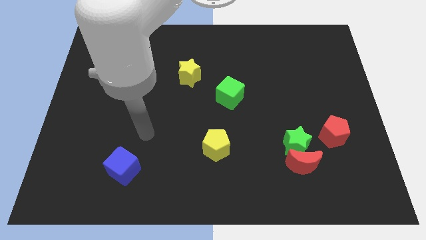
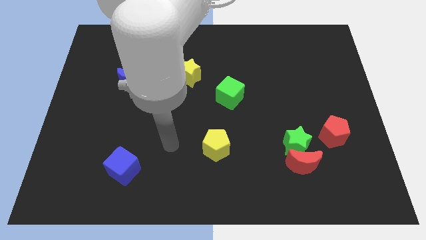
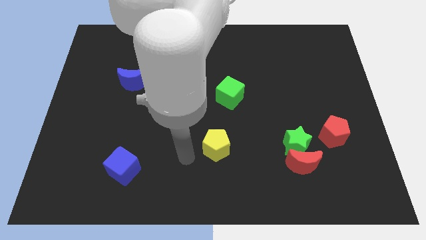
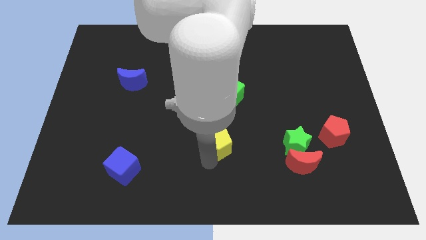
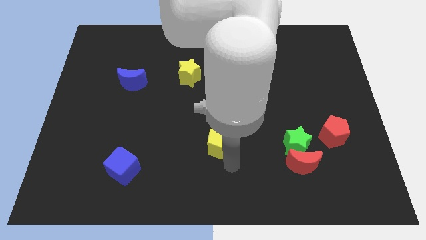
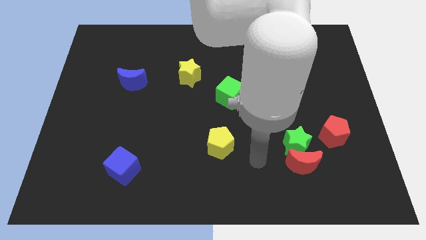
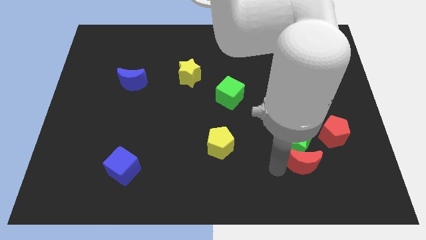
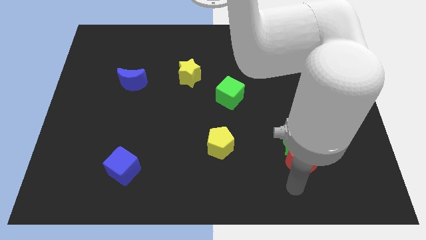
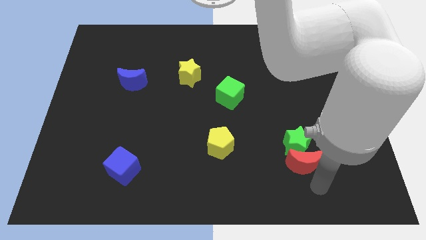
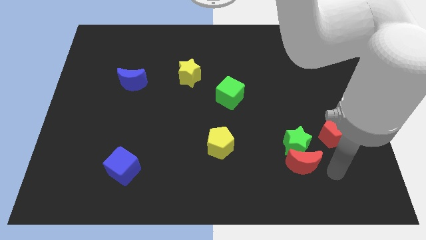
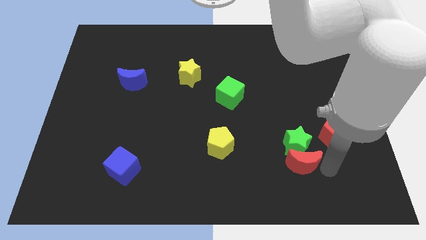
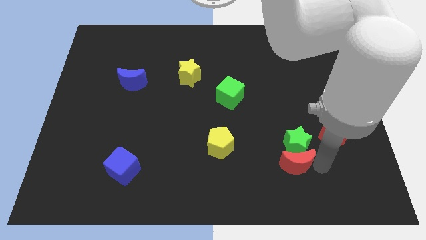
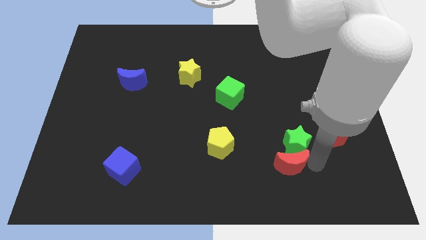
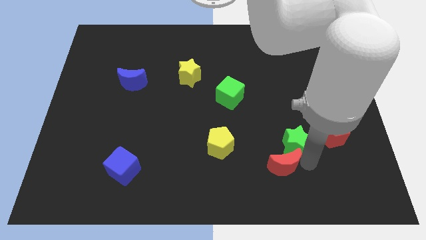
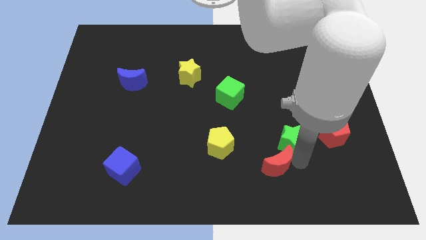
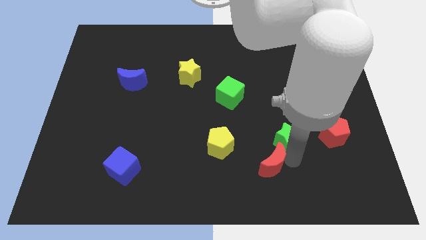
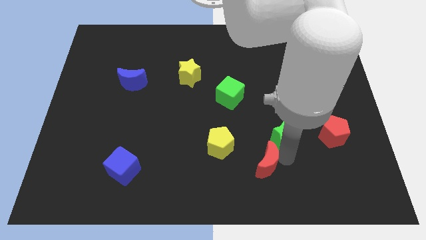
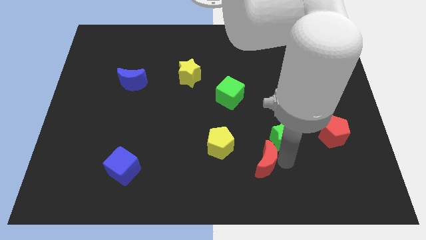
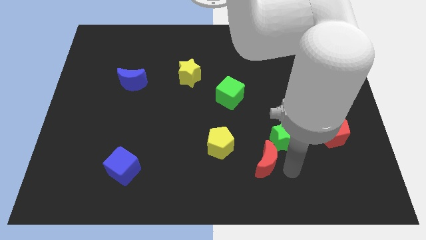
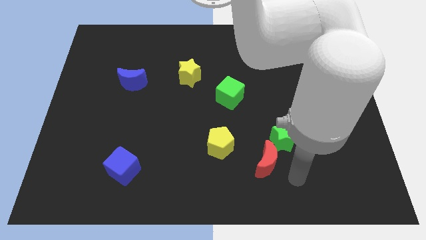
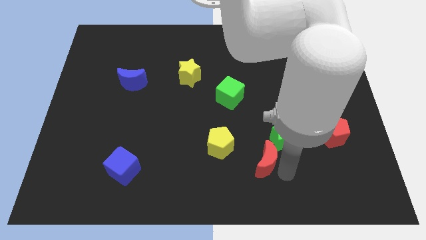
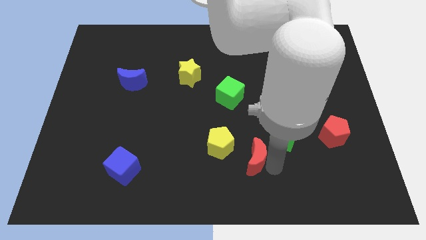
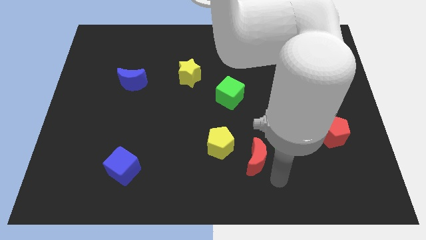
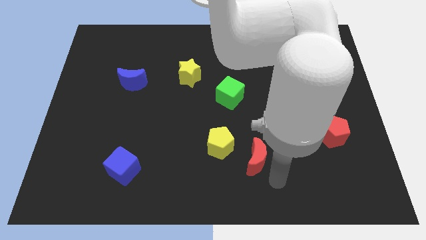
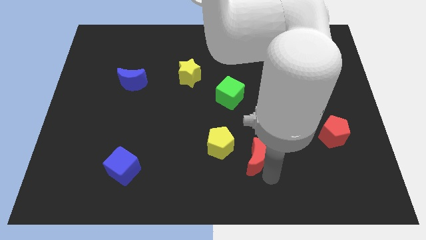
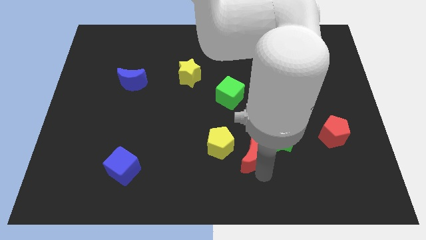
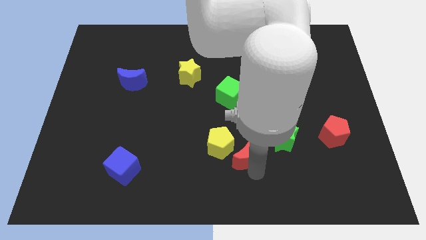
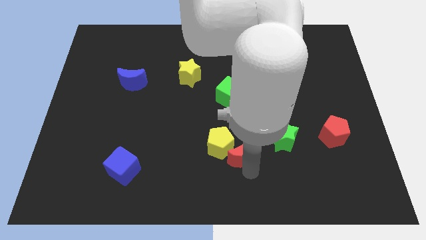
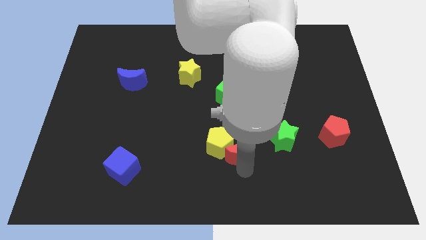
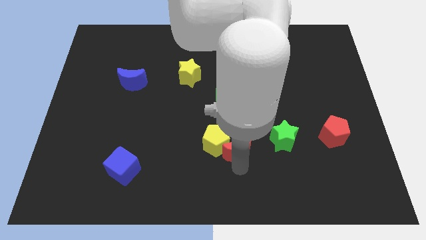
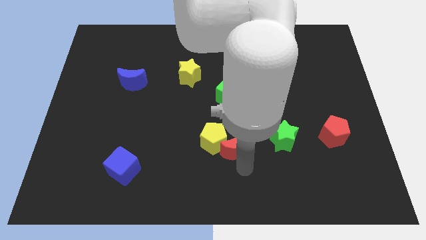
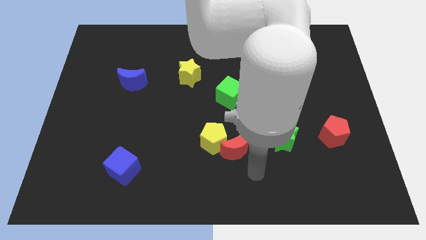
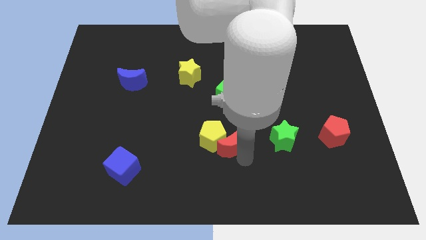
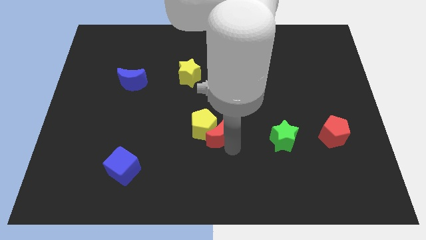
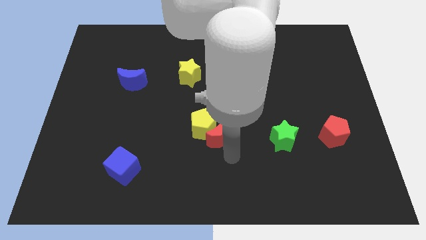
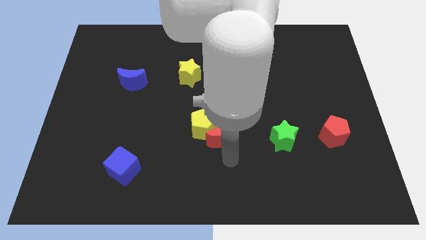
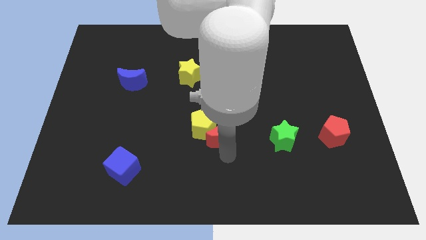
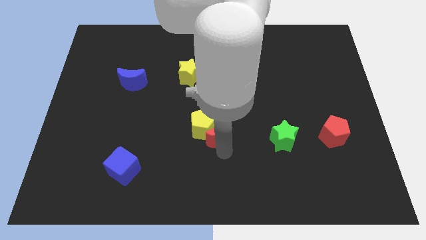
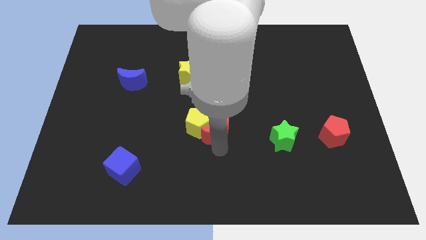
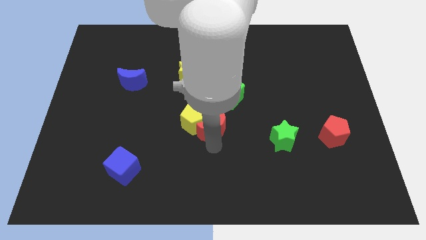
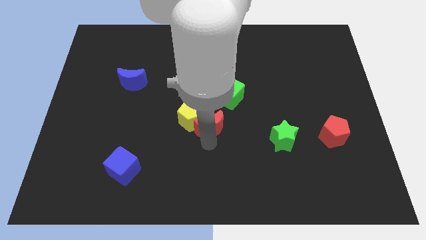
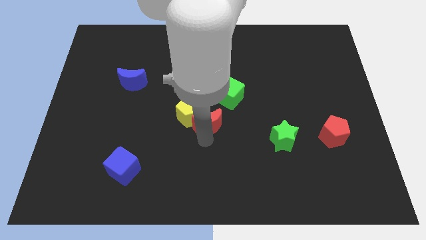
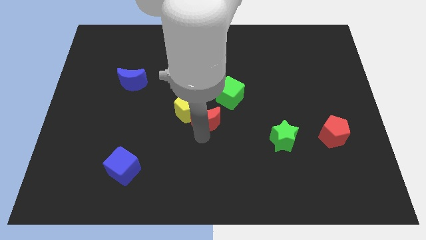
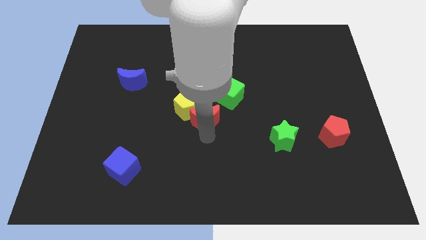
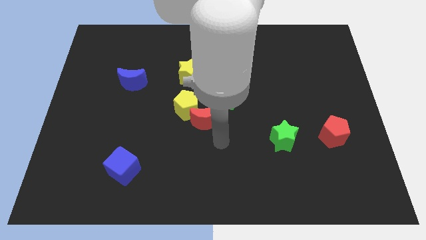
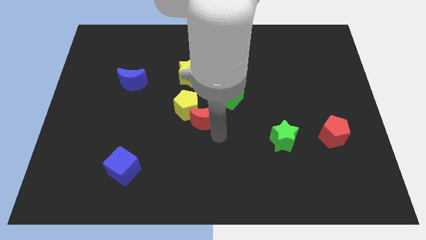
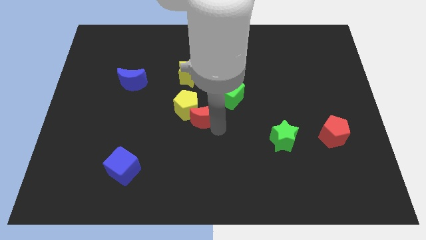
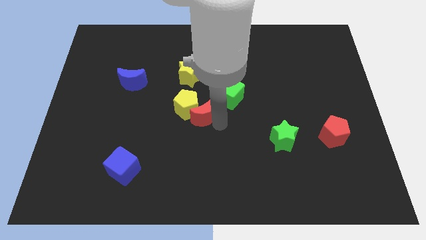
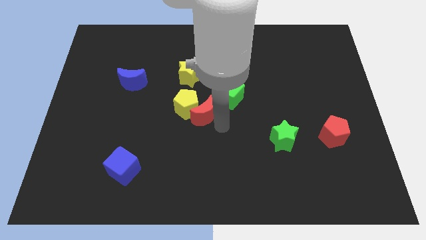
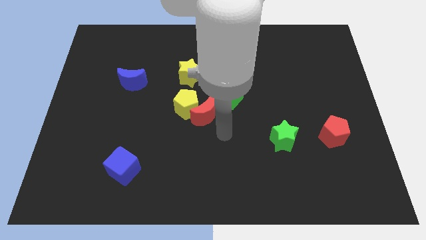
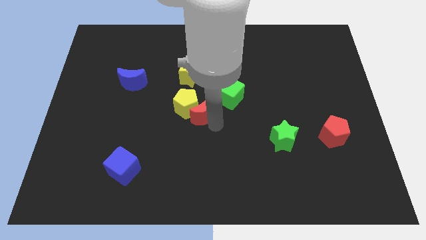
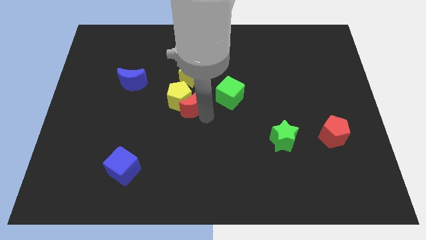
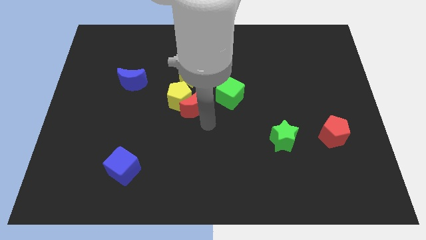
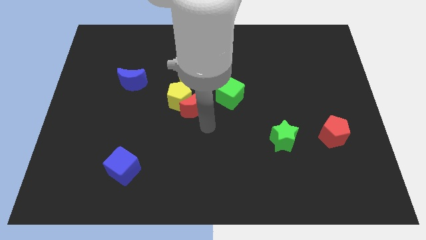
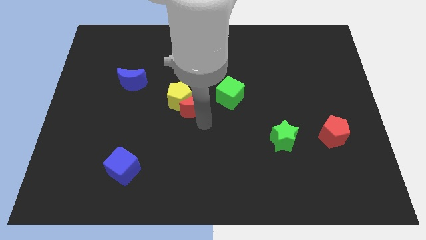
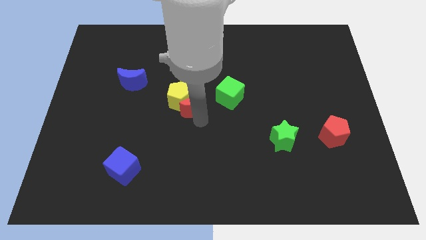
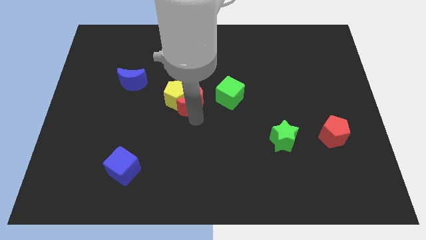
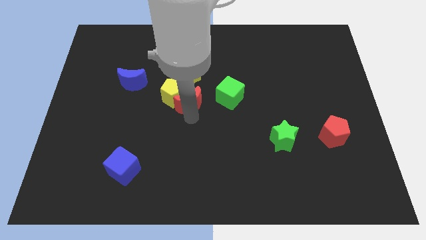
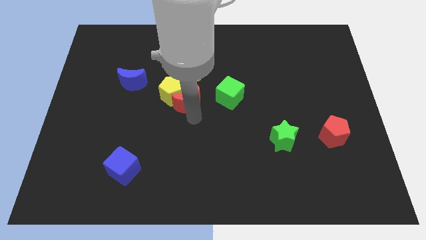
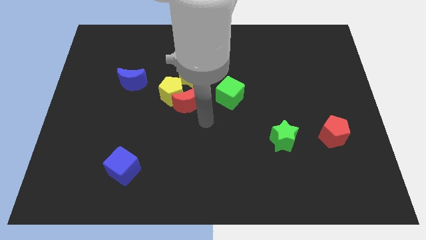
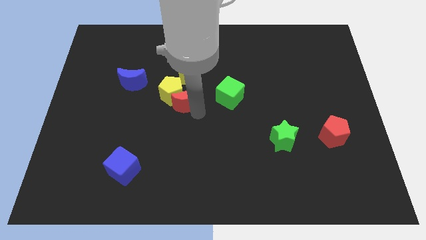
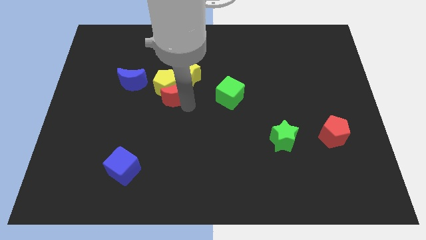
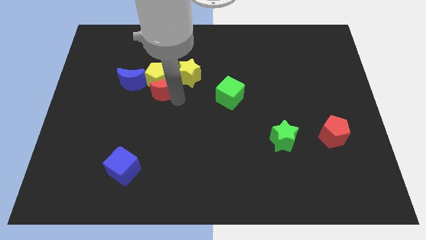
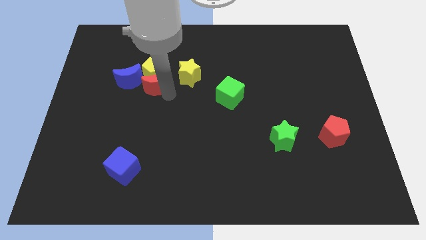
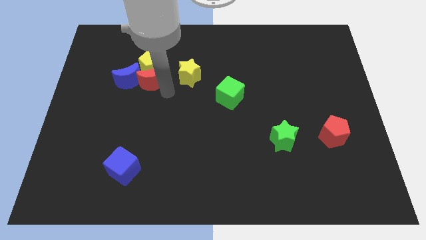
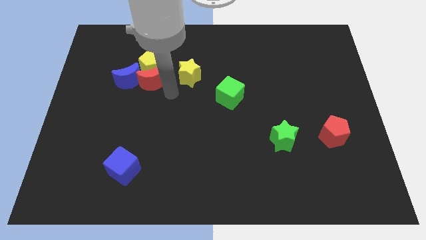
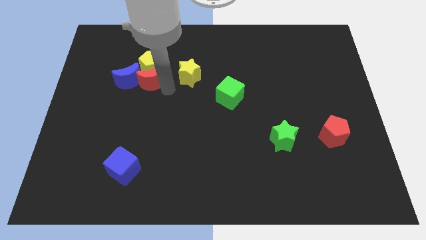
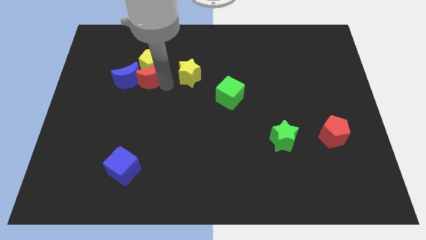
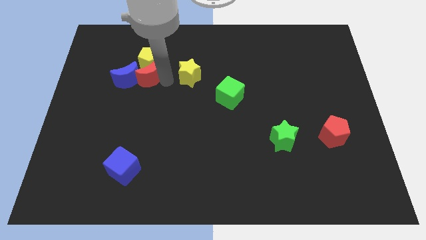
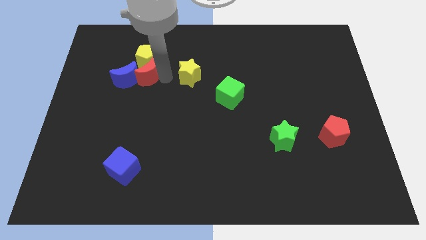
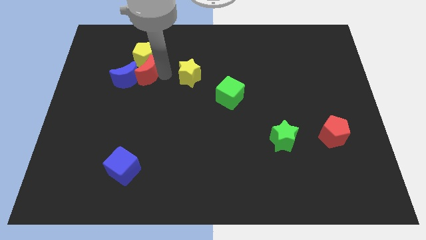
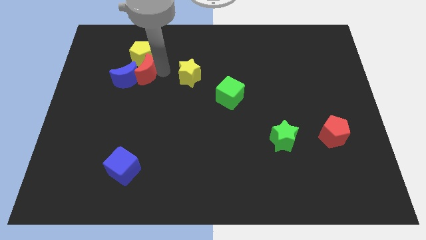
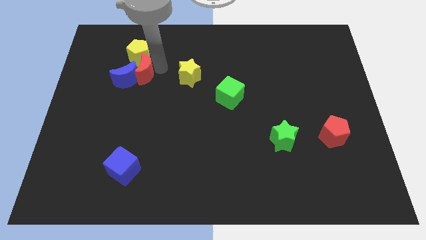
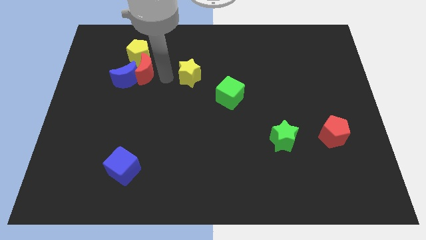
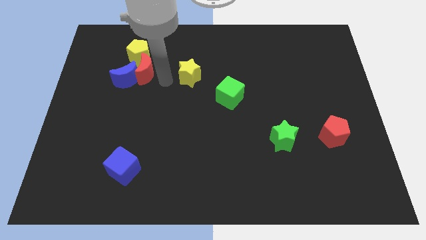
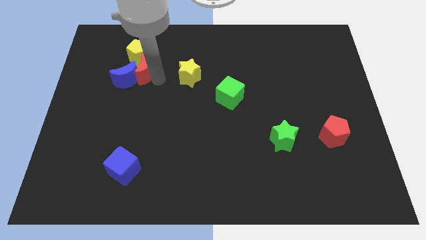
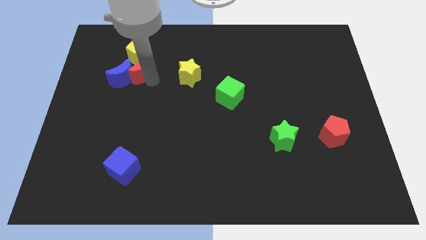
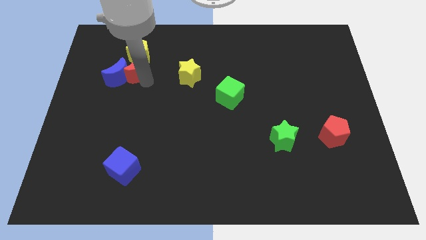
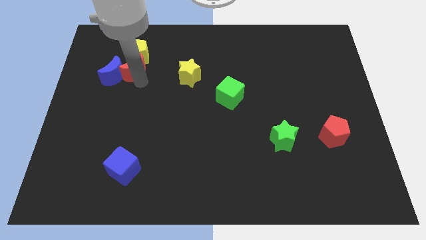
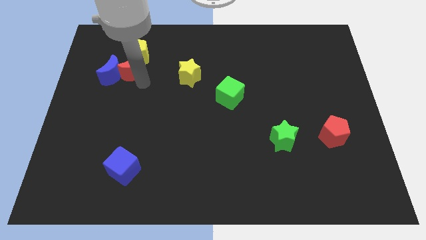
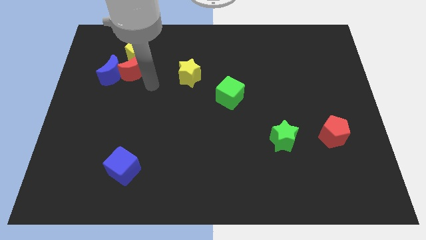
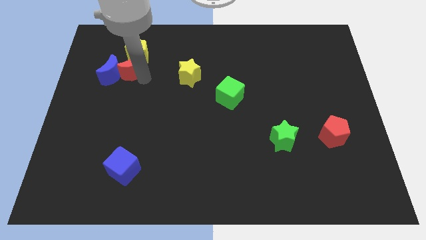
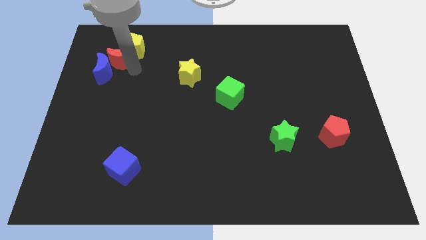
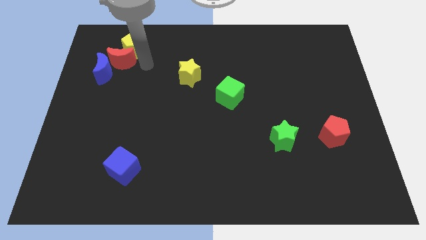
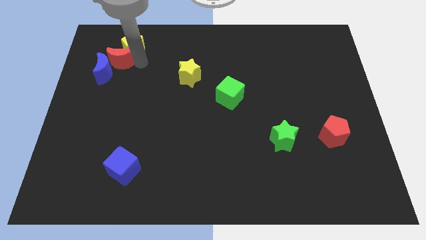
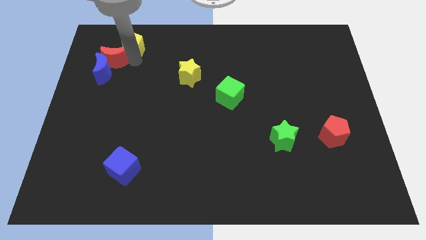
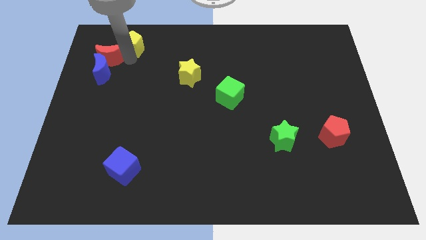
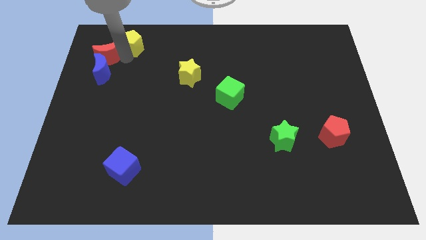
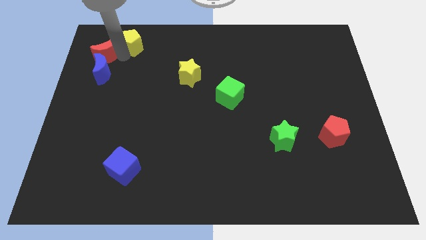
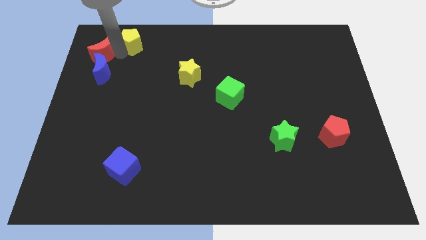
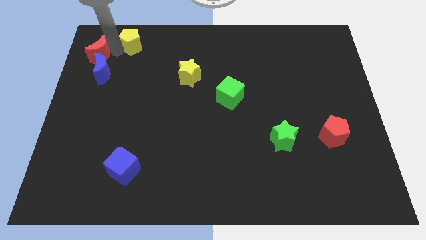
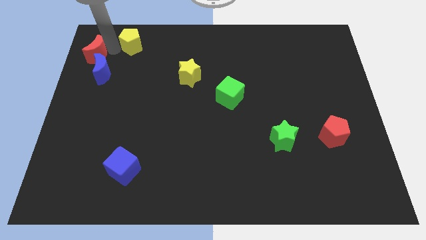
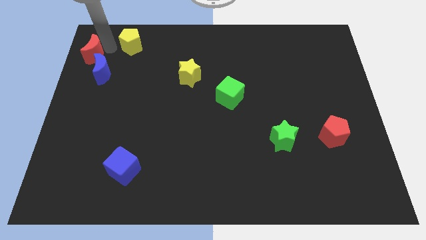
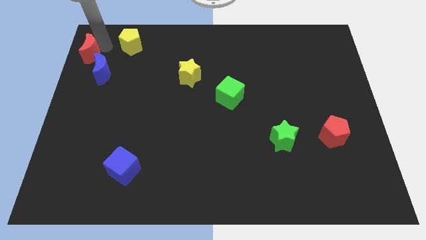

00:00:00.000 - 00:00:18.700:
put the red moon to the top left
